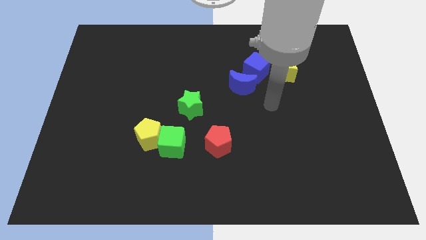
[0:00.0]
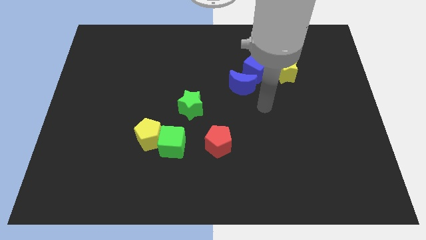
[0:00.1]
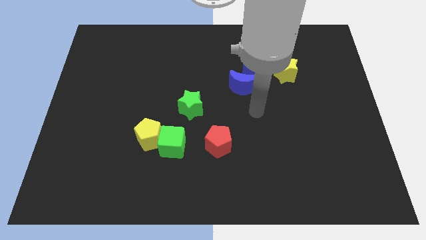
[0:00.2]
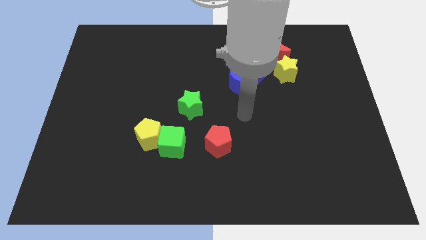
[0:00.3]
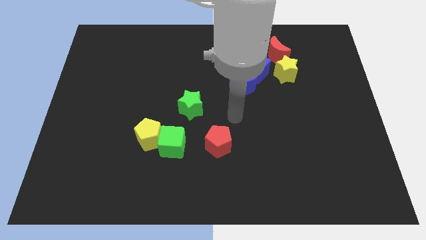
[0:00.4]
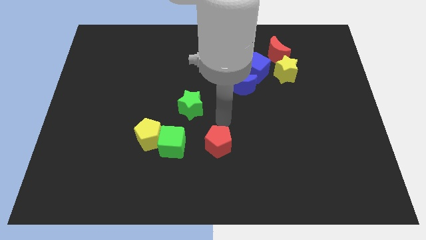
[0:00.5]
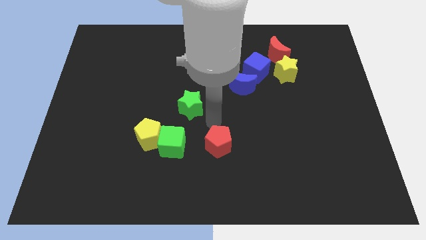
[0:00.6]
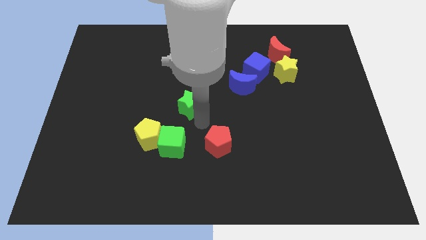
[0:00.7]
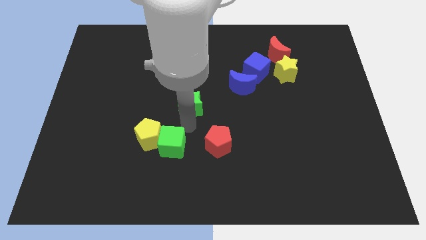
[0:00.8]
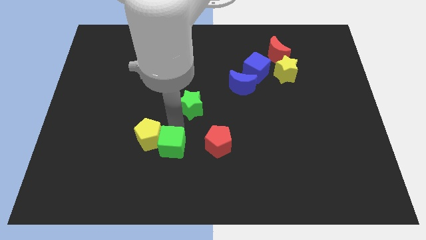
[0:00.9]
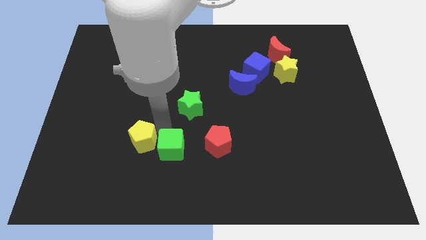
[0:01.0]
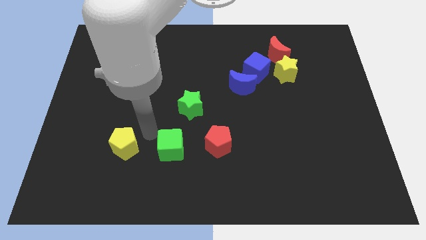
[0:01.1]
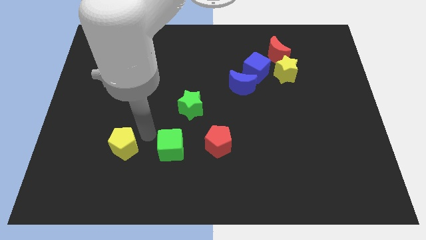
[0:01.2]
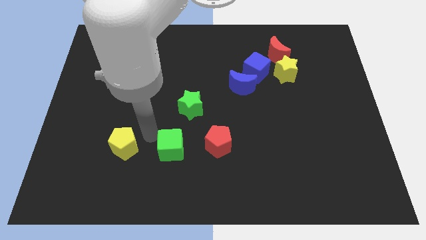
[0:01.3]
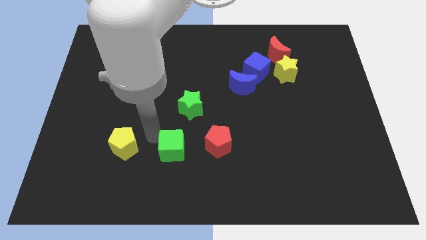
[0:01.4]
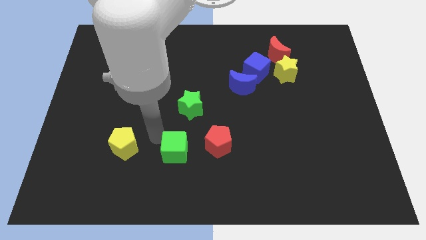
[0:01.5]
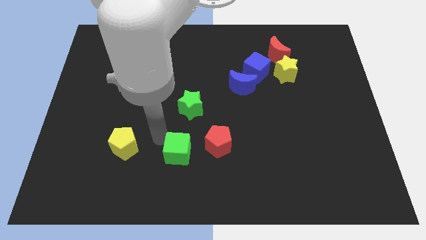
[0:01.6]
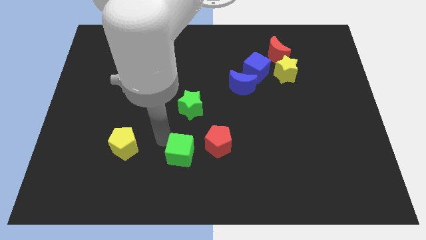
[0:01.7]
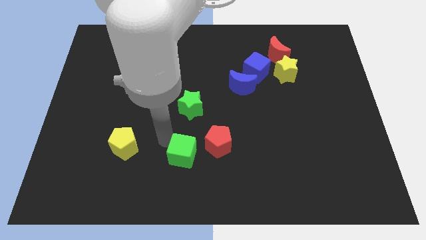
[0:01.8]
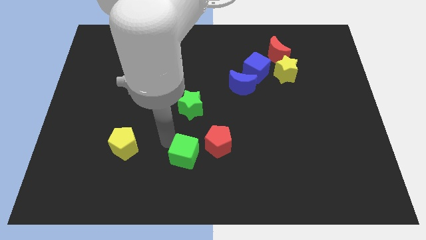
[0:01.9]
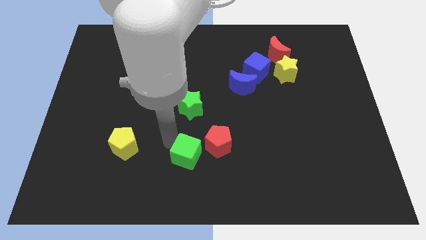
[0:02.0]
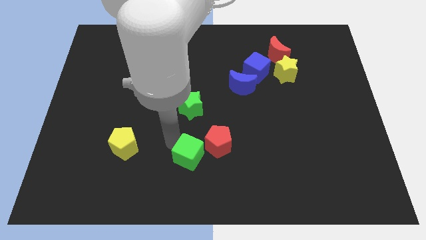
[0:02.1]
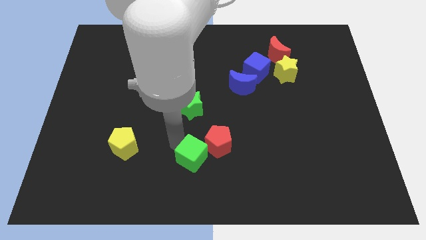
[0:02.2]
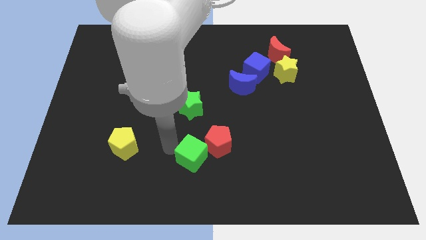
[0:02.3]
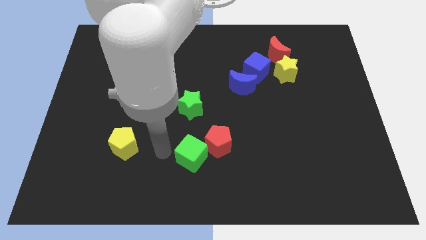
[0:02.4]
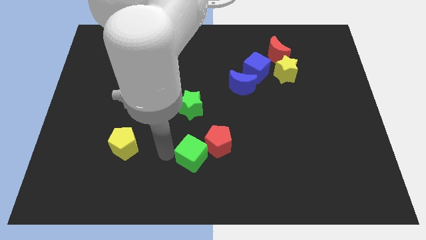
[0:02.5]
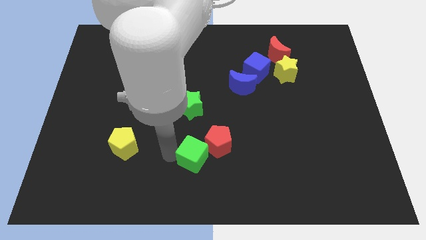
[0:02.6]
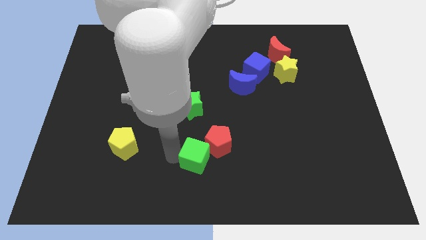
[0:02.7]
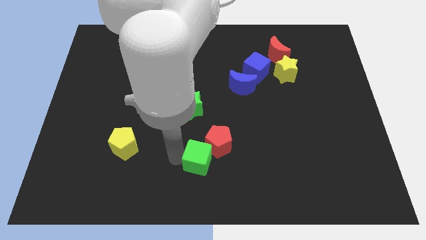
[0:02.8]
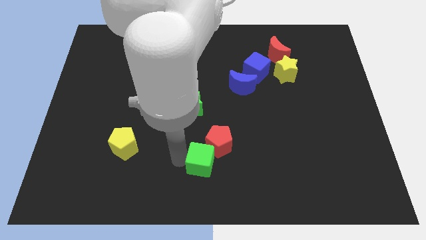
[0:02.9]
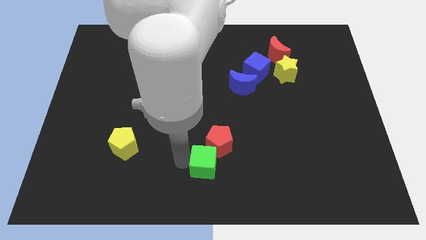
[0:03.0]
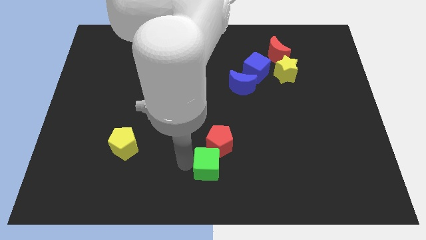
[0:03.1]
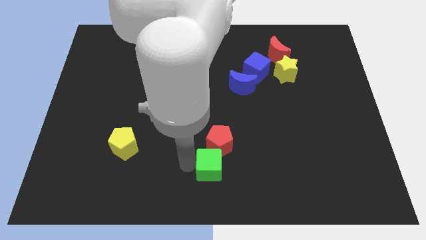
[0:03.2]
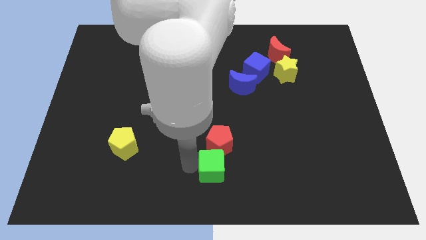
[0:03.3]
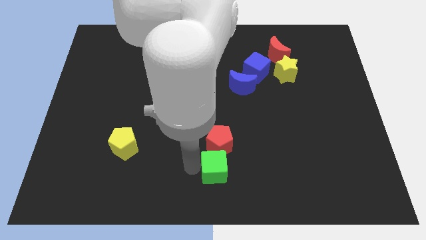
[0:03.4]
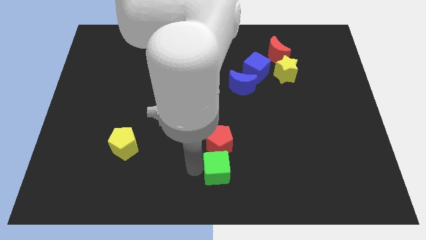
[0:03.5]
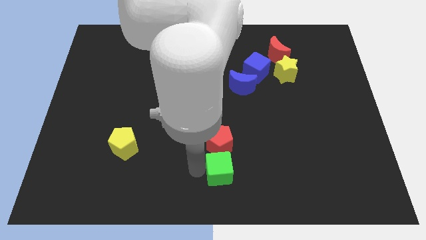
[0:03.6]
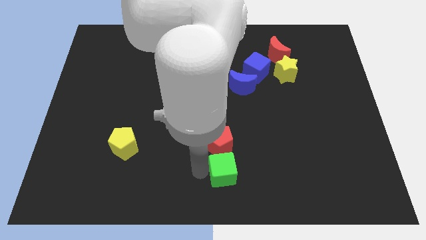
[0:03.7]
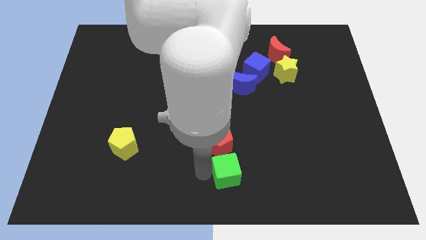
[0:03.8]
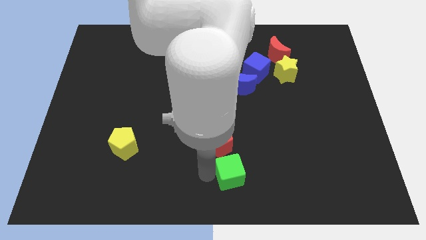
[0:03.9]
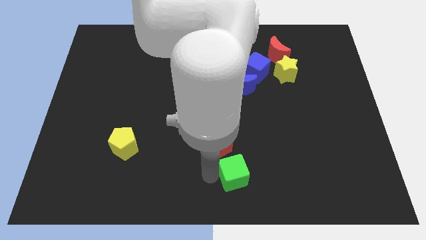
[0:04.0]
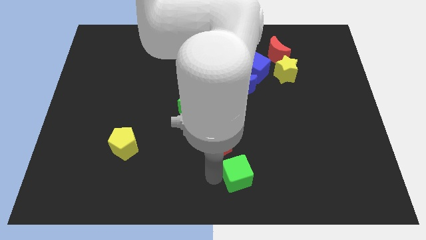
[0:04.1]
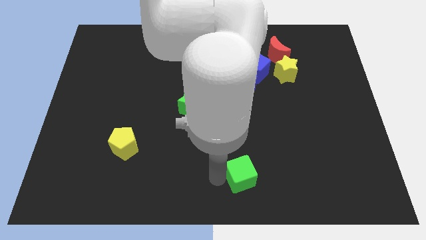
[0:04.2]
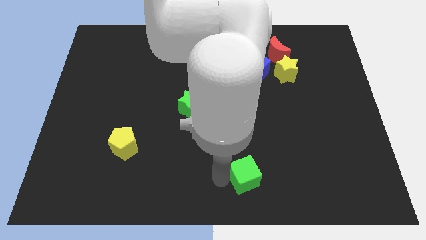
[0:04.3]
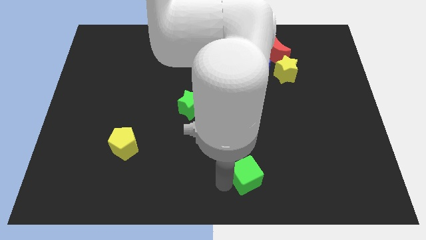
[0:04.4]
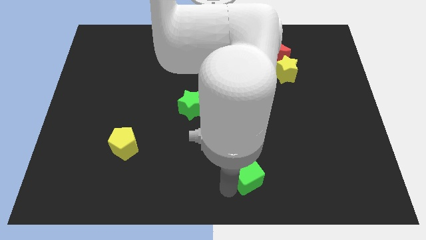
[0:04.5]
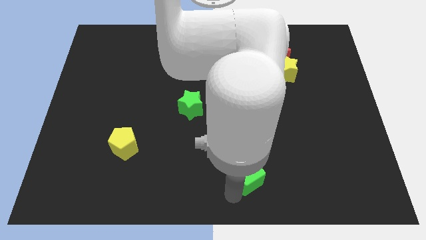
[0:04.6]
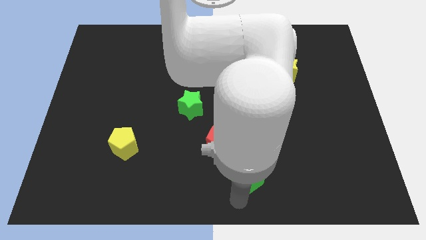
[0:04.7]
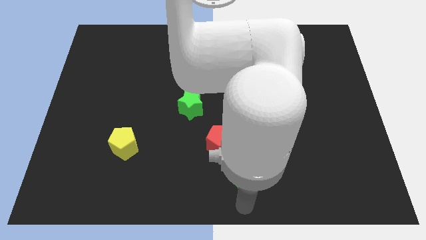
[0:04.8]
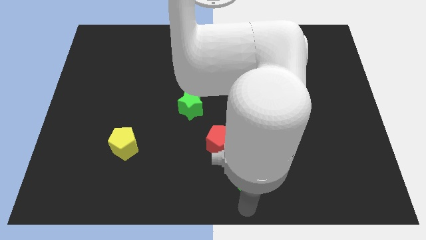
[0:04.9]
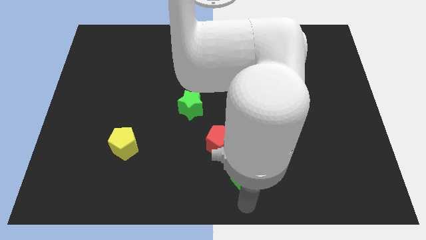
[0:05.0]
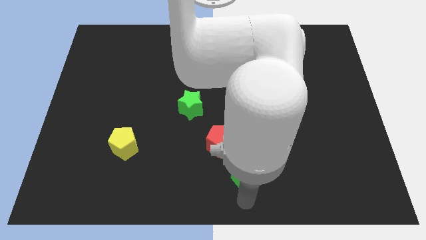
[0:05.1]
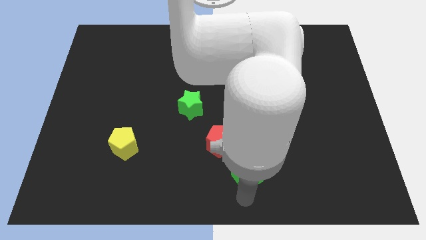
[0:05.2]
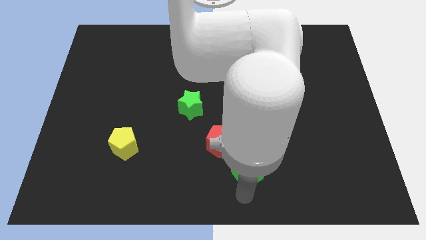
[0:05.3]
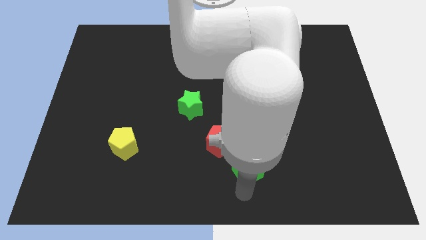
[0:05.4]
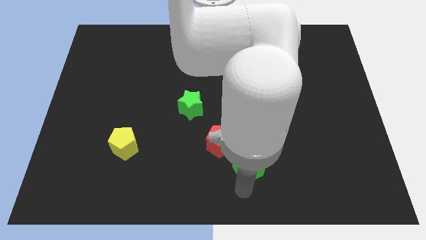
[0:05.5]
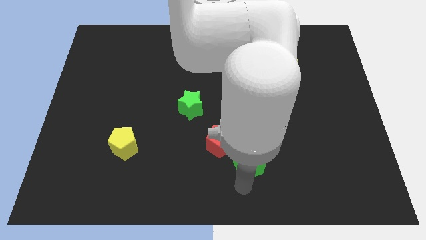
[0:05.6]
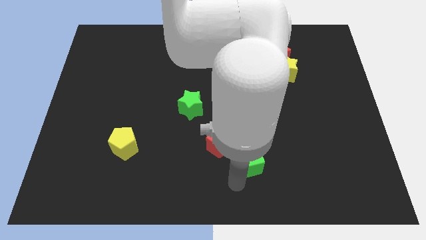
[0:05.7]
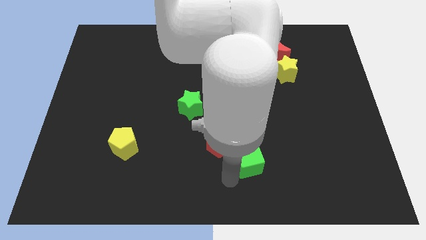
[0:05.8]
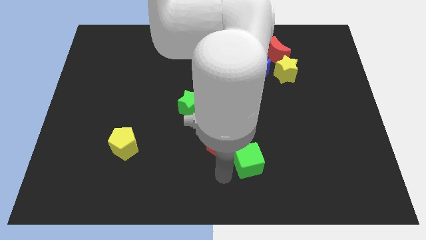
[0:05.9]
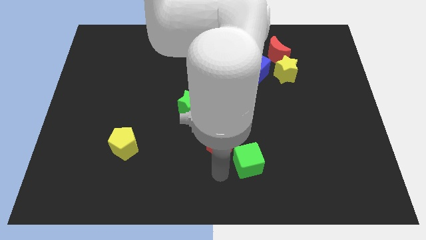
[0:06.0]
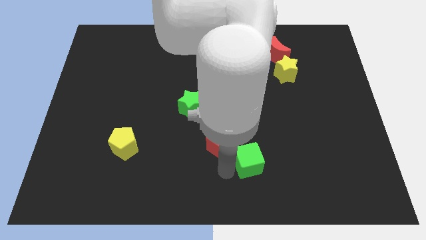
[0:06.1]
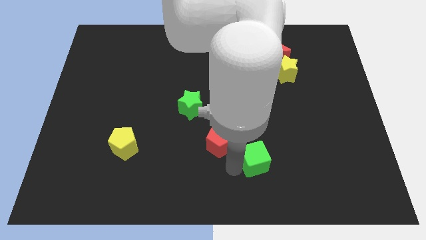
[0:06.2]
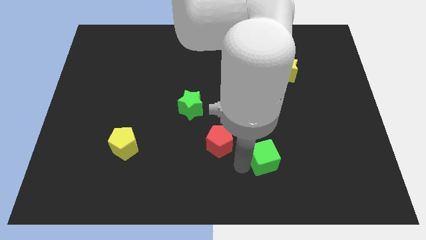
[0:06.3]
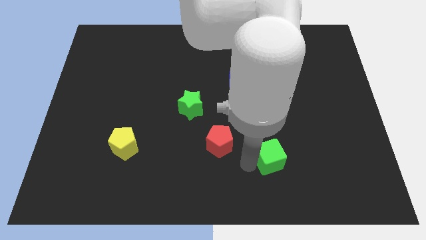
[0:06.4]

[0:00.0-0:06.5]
move the green cube right

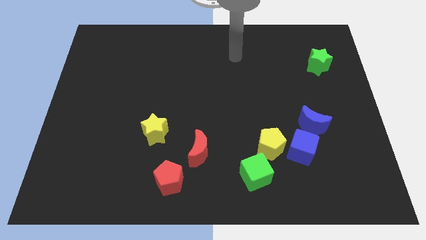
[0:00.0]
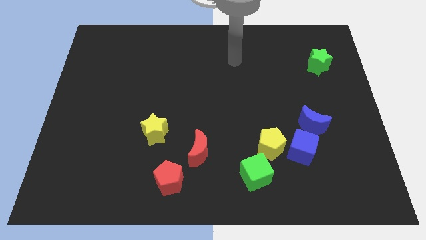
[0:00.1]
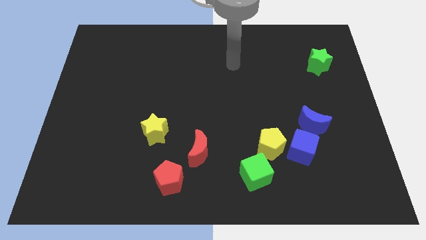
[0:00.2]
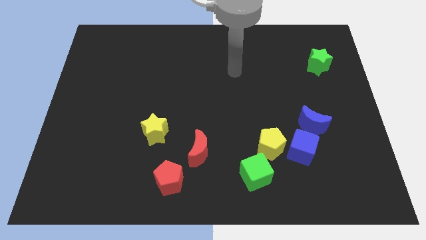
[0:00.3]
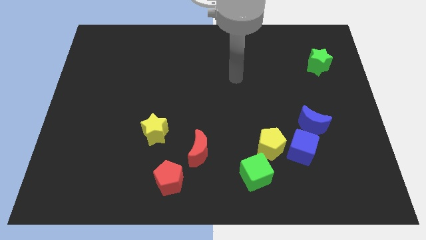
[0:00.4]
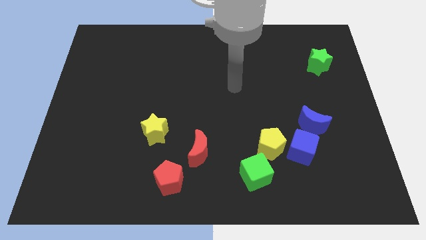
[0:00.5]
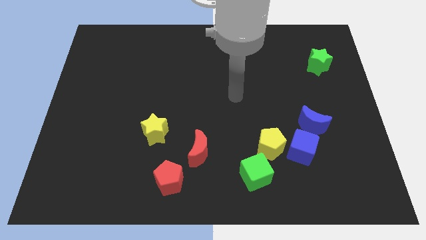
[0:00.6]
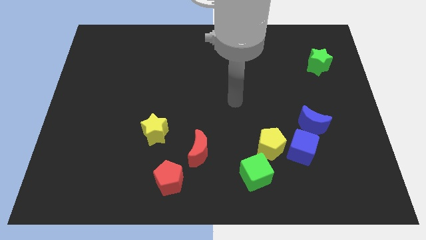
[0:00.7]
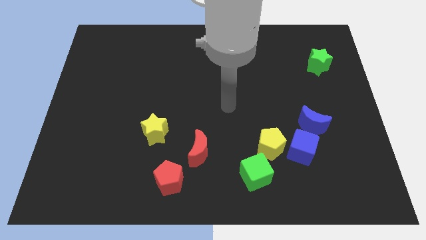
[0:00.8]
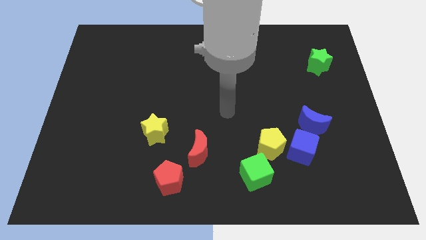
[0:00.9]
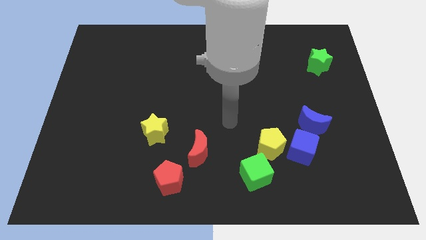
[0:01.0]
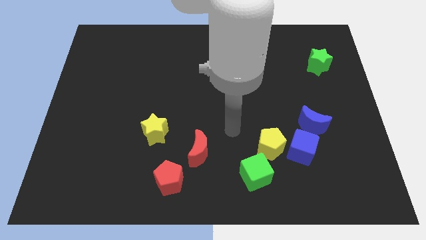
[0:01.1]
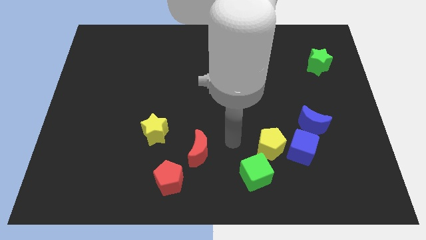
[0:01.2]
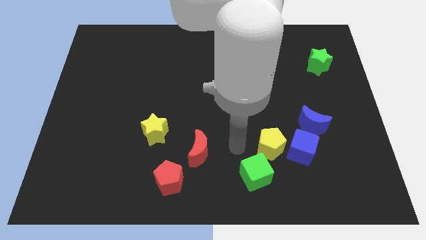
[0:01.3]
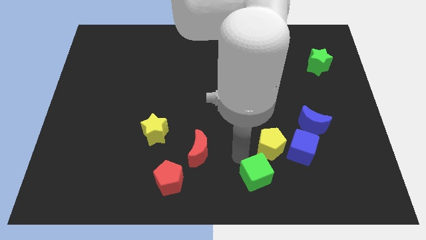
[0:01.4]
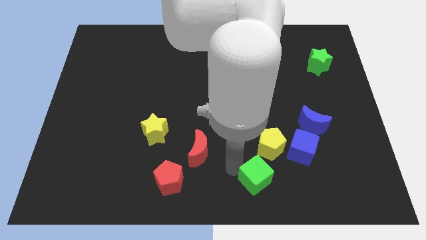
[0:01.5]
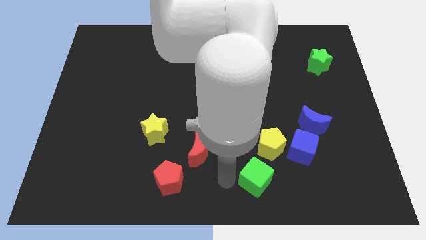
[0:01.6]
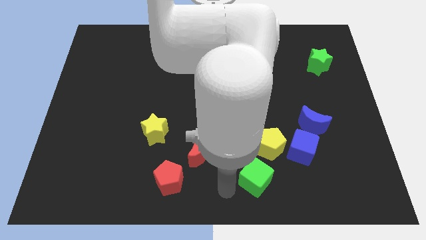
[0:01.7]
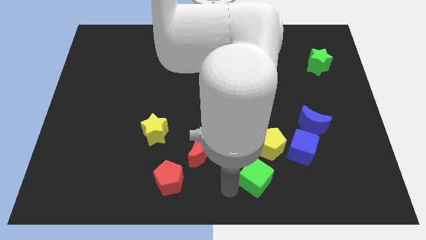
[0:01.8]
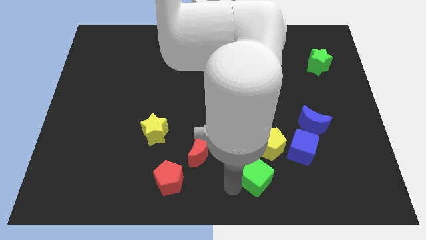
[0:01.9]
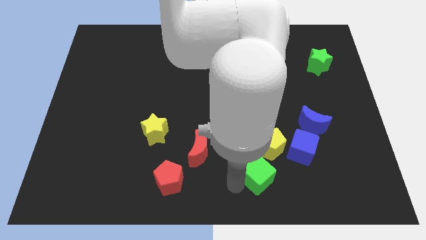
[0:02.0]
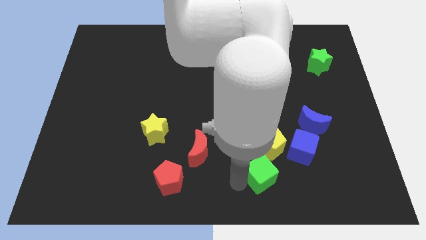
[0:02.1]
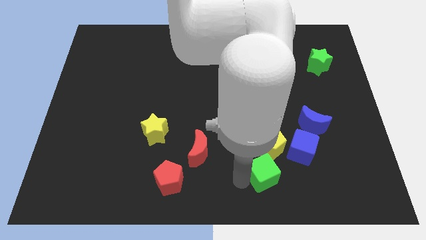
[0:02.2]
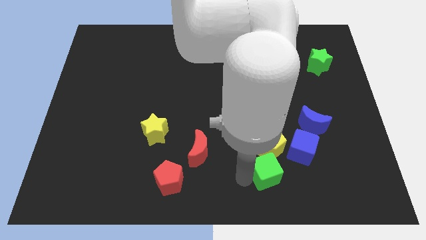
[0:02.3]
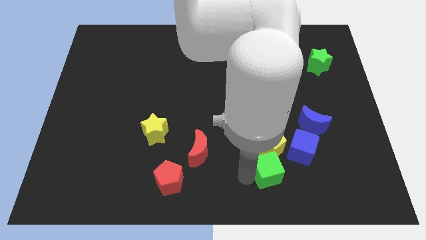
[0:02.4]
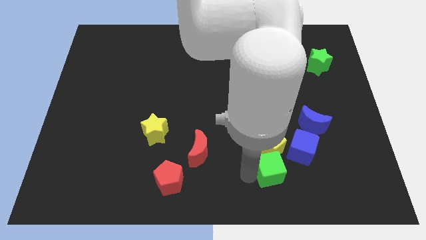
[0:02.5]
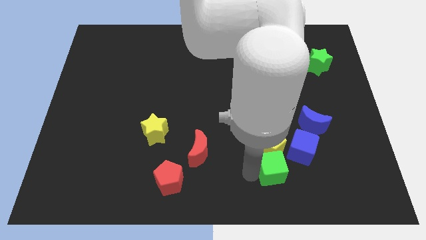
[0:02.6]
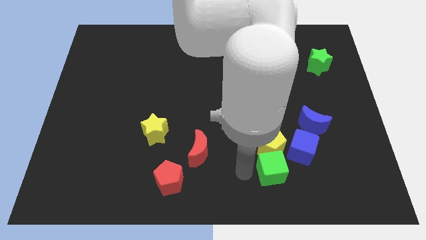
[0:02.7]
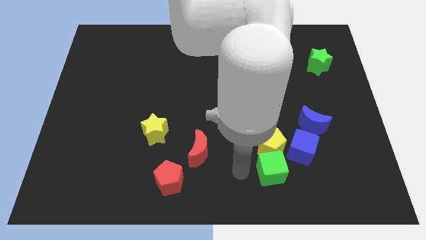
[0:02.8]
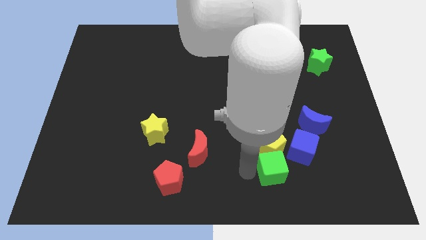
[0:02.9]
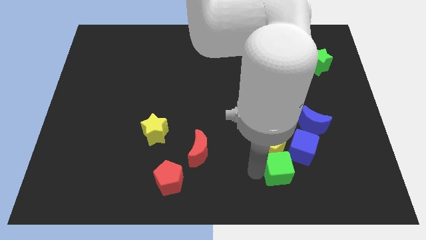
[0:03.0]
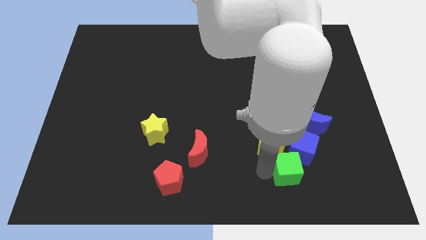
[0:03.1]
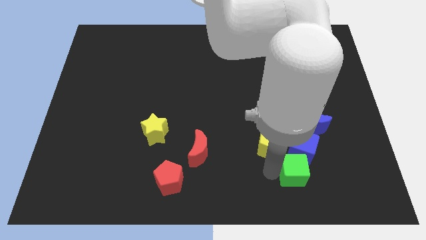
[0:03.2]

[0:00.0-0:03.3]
slide the green cube a little right
